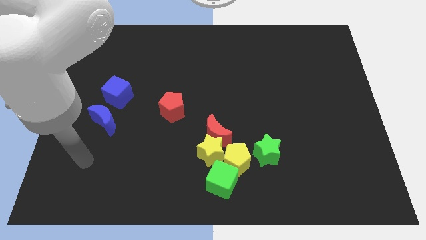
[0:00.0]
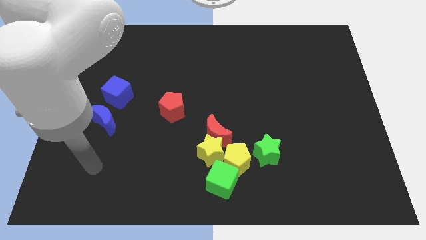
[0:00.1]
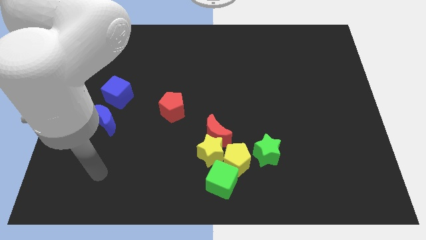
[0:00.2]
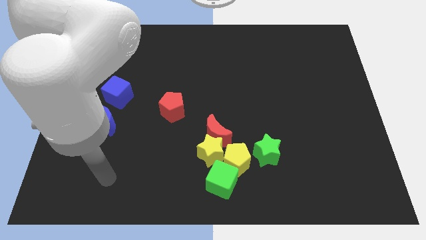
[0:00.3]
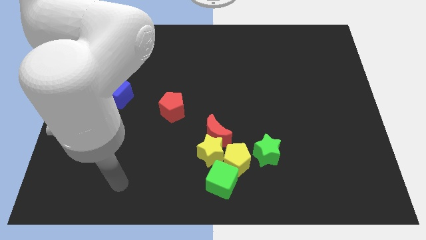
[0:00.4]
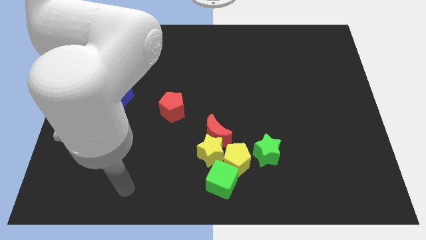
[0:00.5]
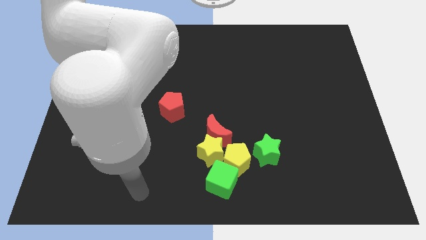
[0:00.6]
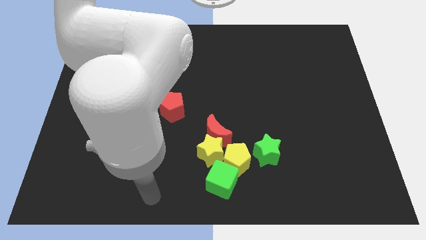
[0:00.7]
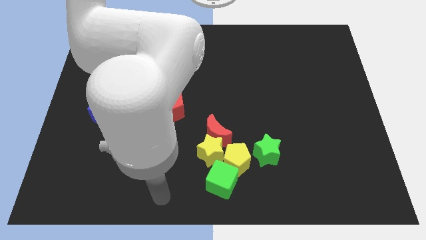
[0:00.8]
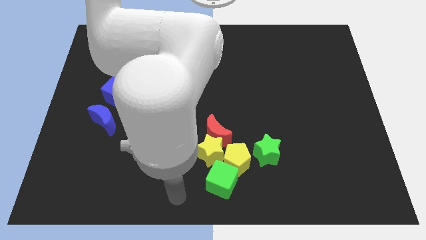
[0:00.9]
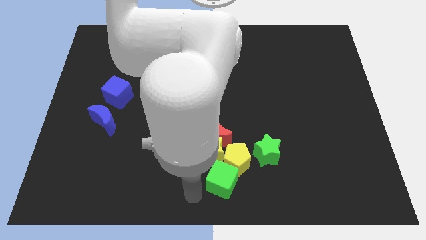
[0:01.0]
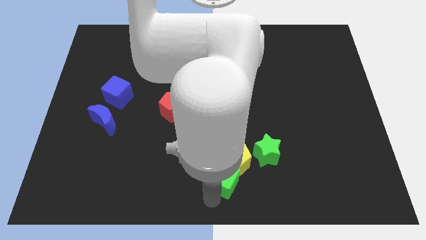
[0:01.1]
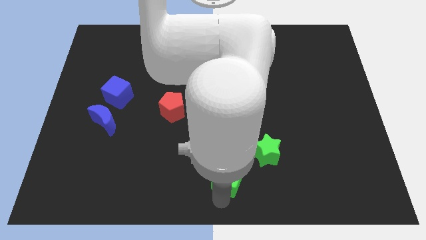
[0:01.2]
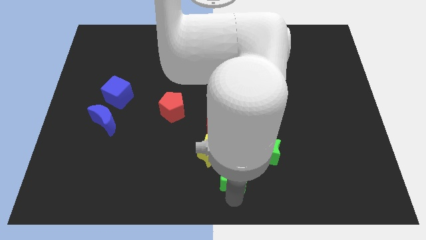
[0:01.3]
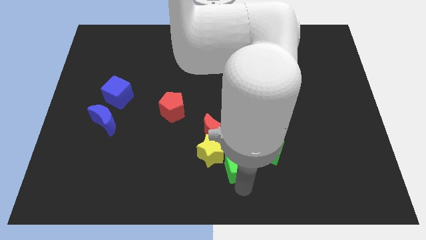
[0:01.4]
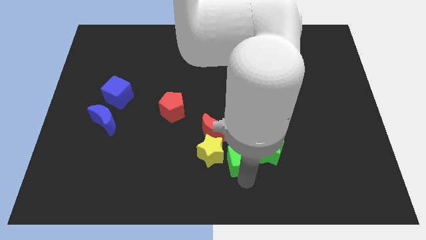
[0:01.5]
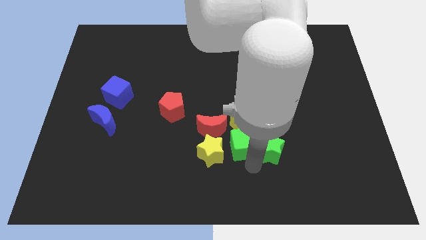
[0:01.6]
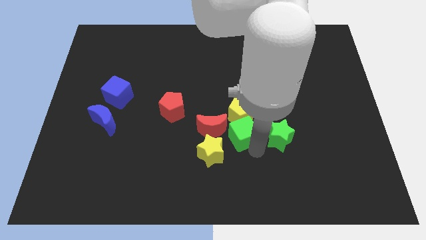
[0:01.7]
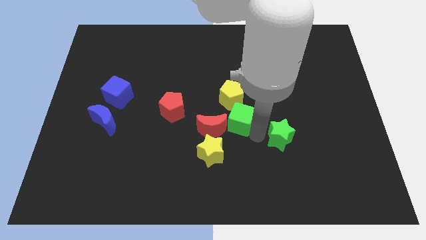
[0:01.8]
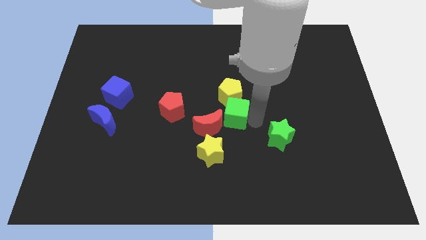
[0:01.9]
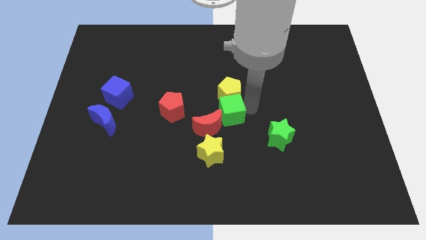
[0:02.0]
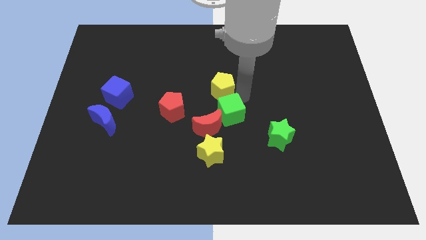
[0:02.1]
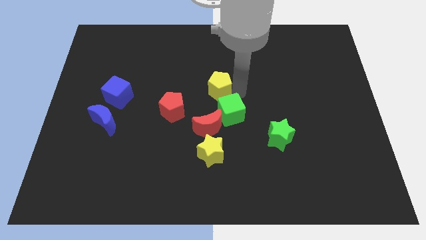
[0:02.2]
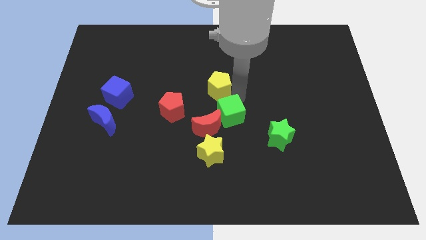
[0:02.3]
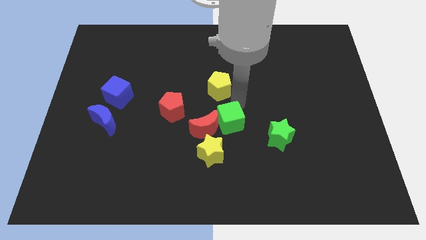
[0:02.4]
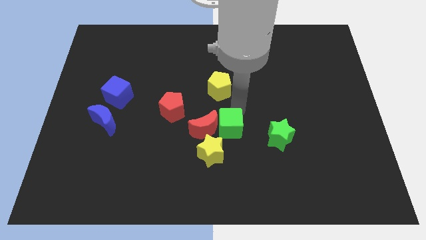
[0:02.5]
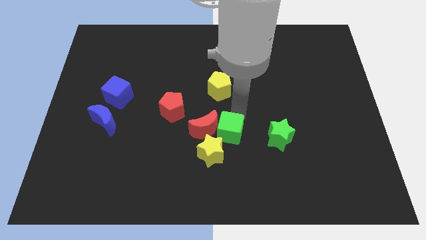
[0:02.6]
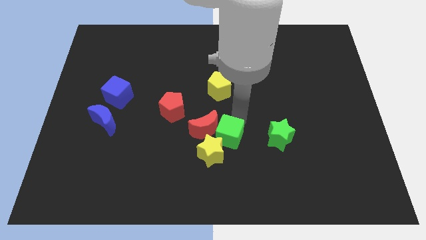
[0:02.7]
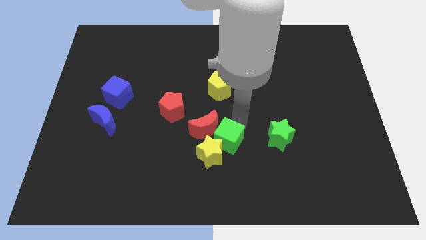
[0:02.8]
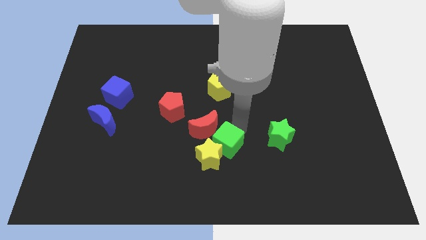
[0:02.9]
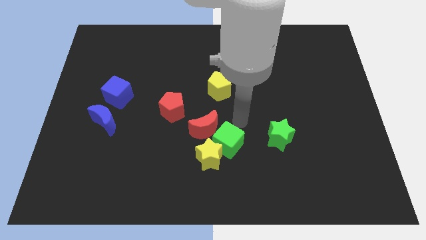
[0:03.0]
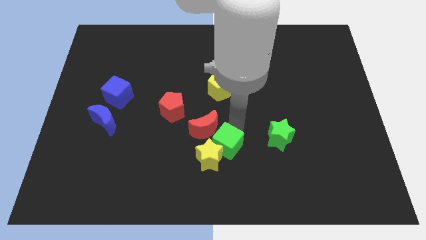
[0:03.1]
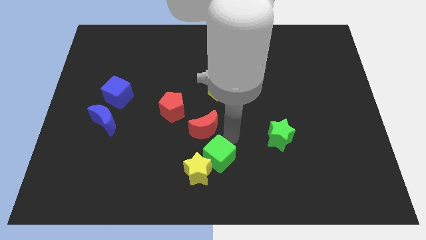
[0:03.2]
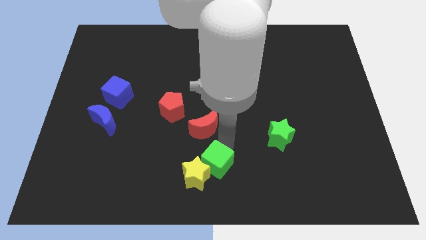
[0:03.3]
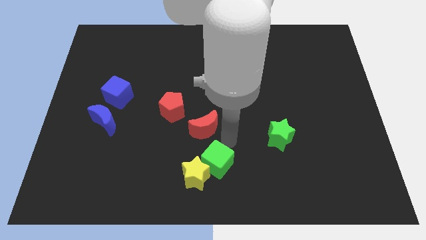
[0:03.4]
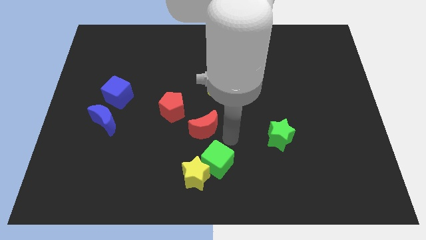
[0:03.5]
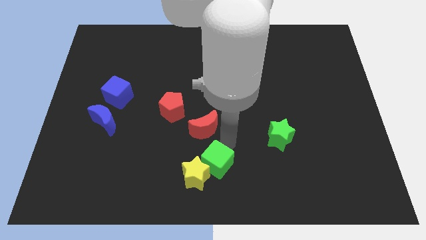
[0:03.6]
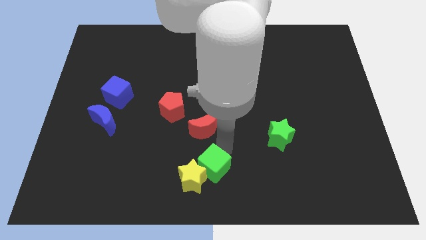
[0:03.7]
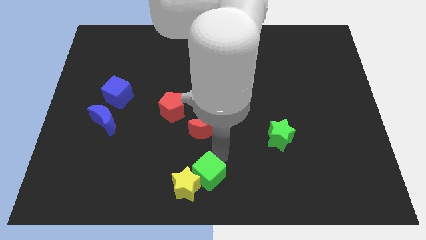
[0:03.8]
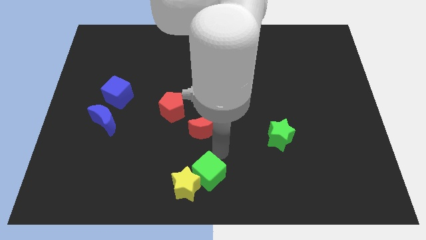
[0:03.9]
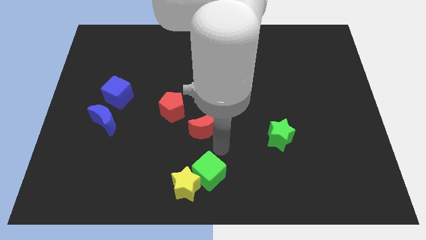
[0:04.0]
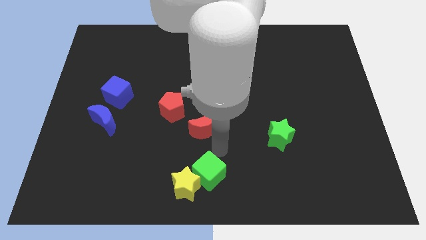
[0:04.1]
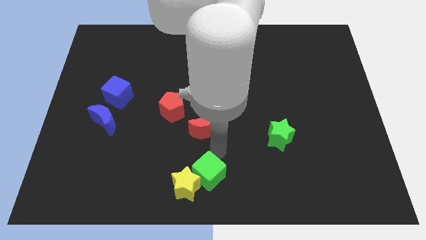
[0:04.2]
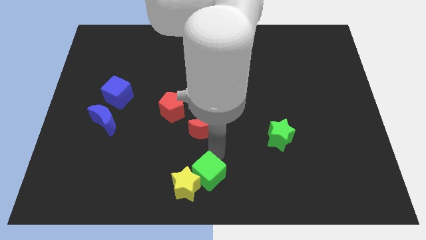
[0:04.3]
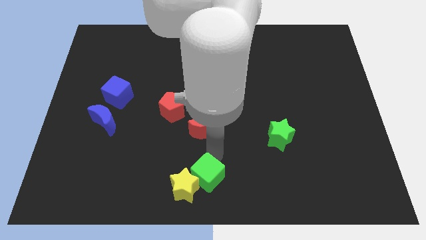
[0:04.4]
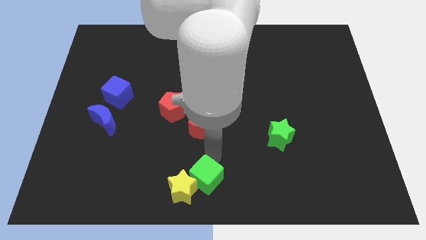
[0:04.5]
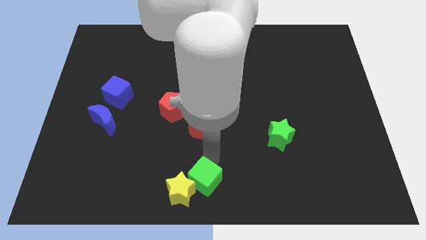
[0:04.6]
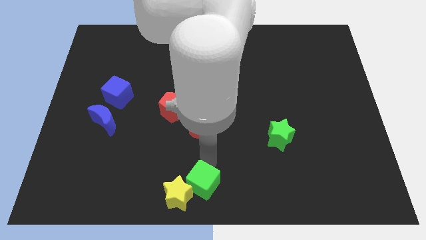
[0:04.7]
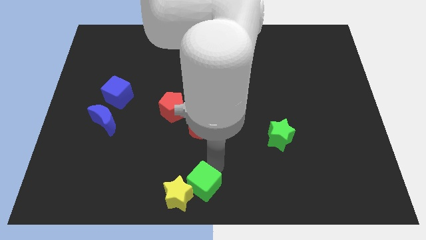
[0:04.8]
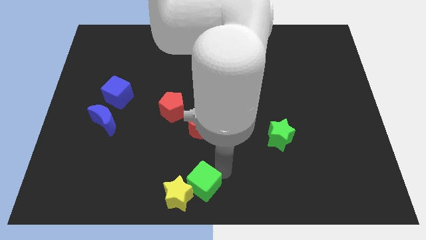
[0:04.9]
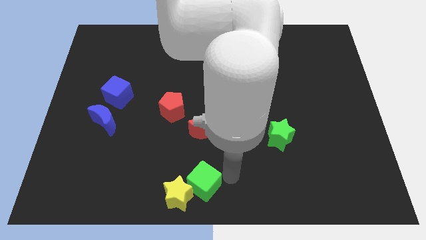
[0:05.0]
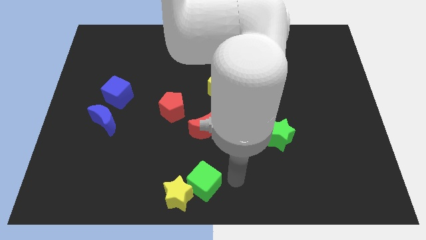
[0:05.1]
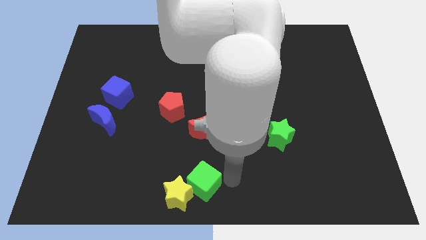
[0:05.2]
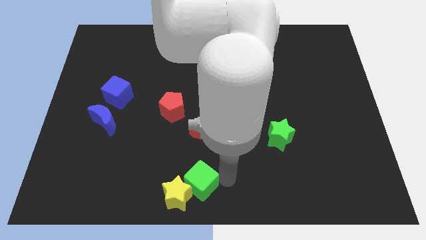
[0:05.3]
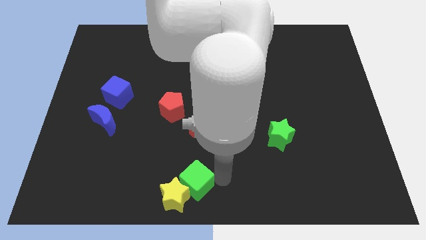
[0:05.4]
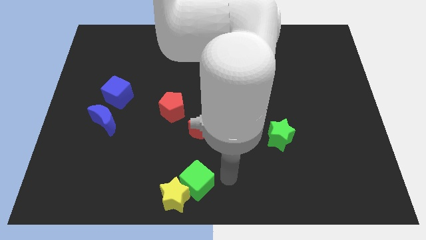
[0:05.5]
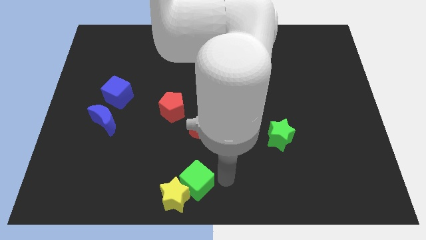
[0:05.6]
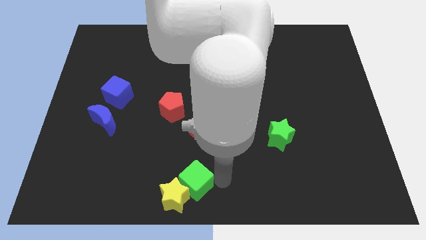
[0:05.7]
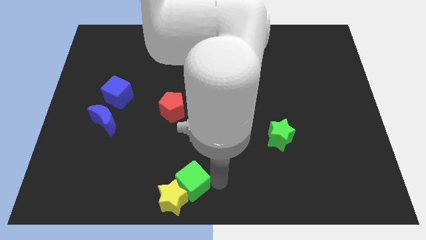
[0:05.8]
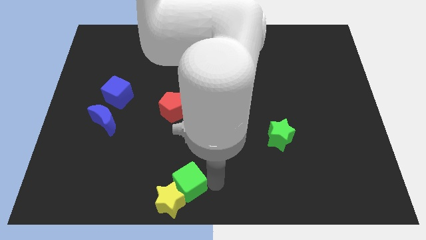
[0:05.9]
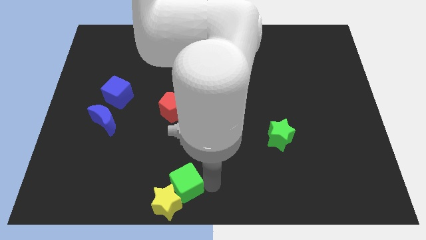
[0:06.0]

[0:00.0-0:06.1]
slide the green cube a bit left

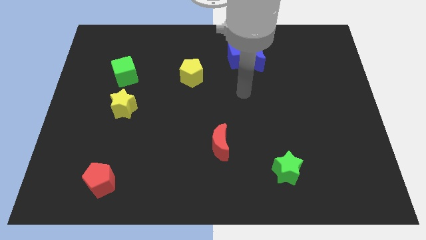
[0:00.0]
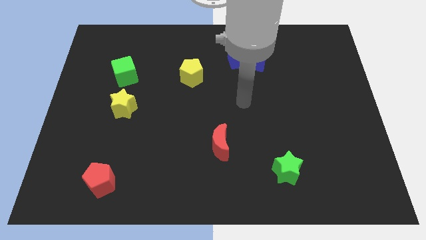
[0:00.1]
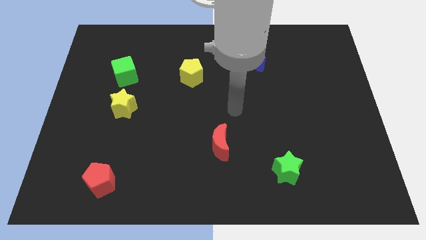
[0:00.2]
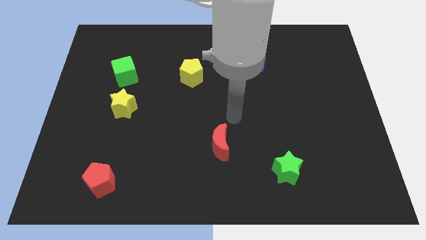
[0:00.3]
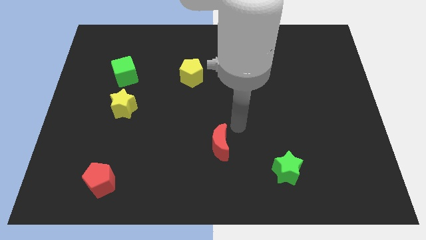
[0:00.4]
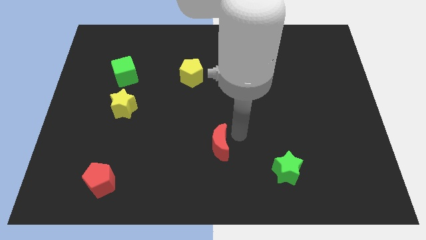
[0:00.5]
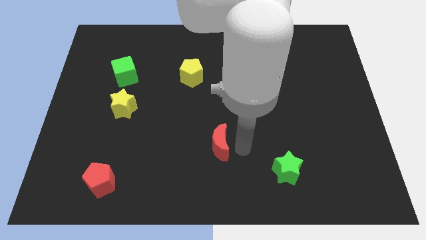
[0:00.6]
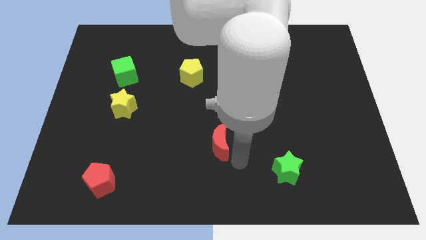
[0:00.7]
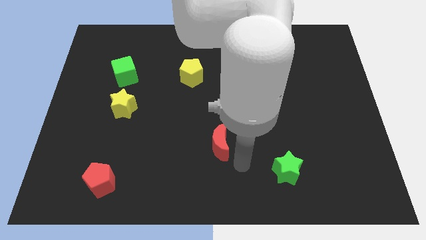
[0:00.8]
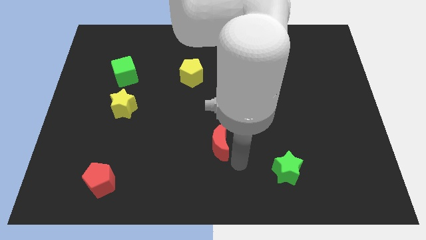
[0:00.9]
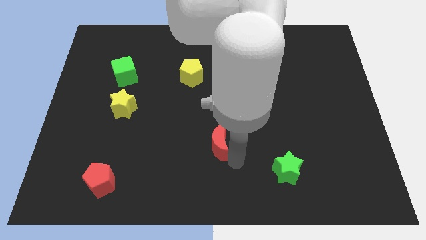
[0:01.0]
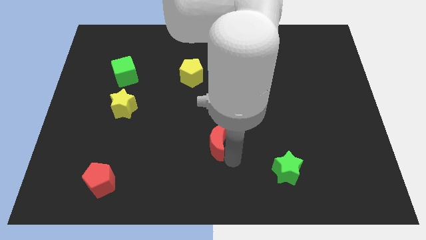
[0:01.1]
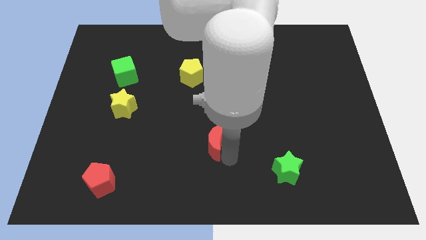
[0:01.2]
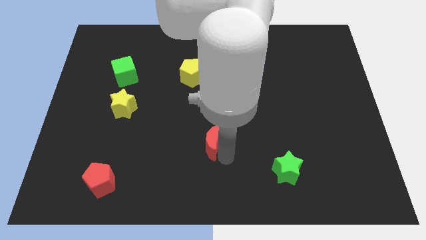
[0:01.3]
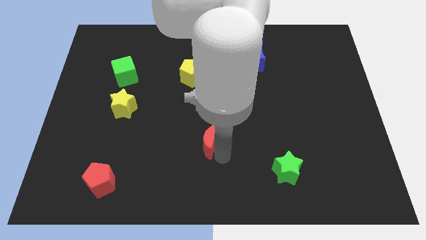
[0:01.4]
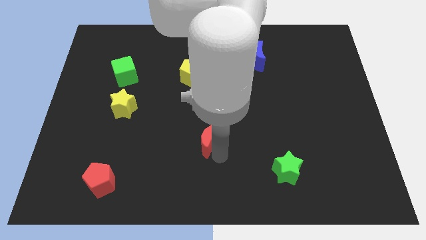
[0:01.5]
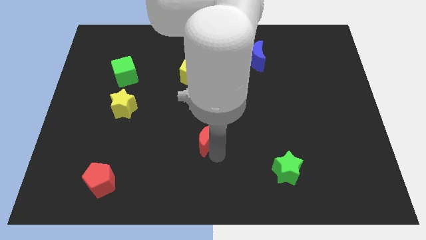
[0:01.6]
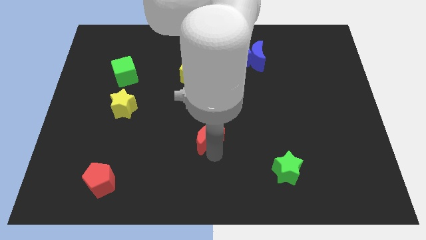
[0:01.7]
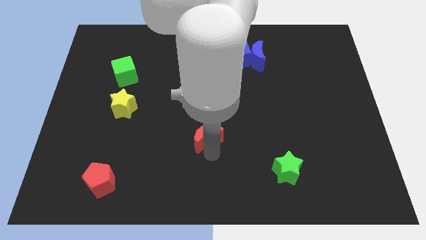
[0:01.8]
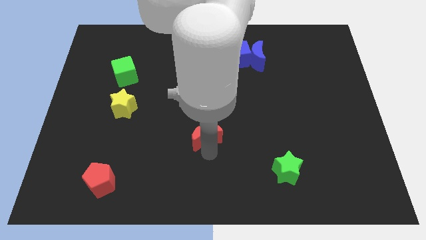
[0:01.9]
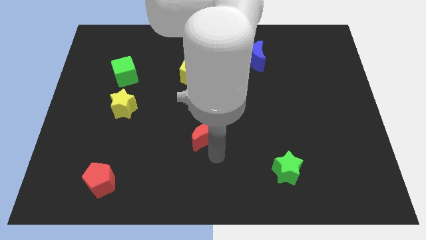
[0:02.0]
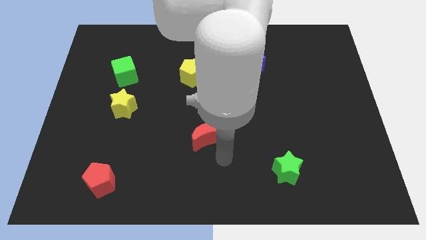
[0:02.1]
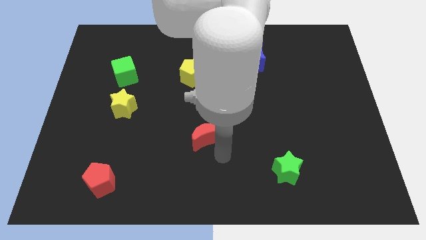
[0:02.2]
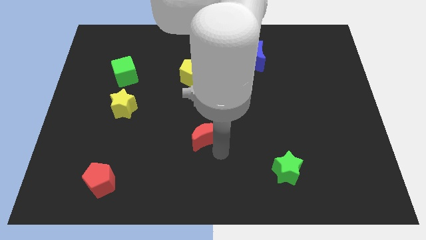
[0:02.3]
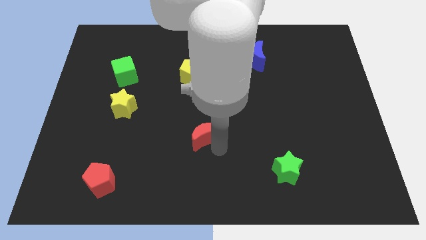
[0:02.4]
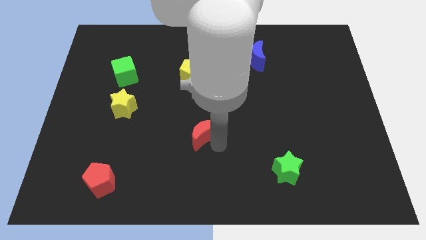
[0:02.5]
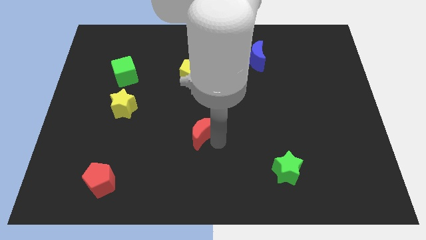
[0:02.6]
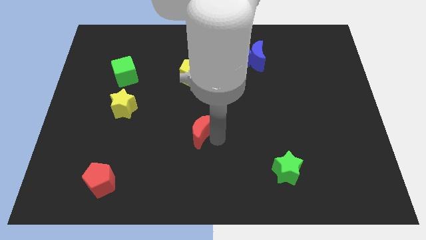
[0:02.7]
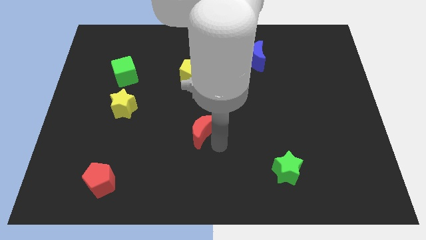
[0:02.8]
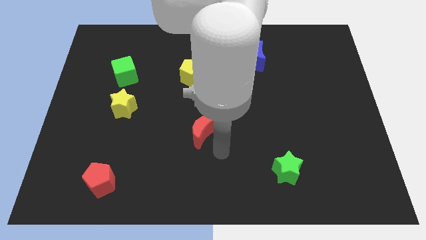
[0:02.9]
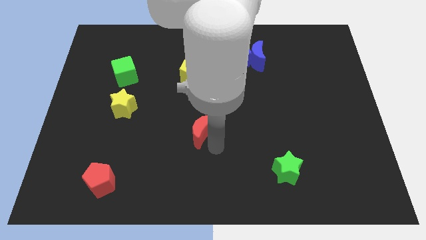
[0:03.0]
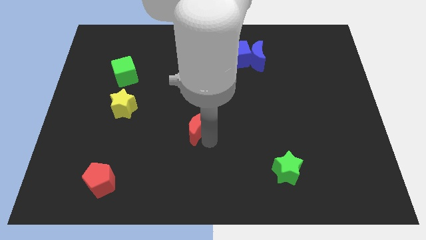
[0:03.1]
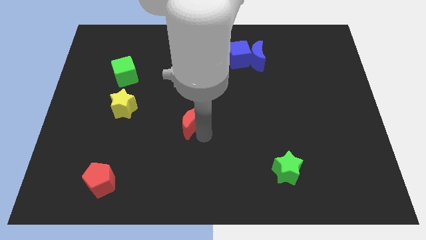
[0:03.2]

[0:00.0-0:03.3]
slightly push the red moon up and then left
